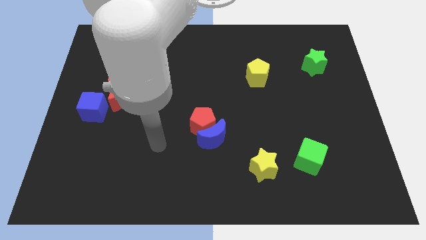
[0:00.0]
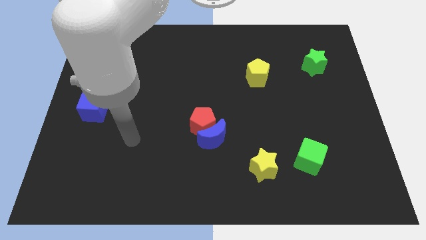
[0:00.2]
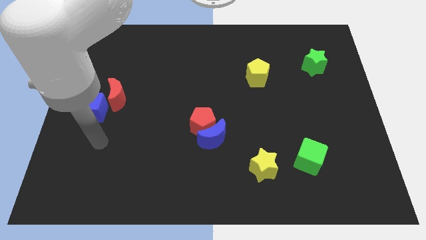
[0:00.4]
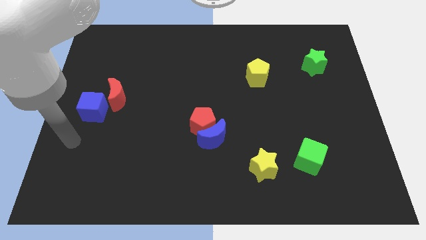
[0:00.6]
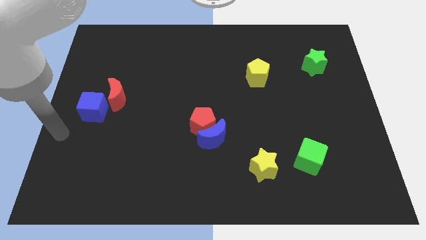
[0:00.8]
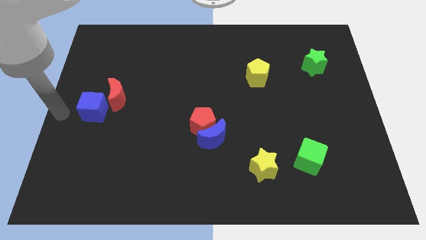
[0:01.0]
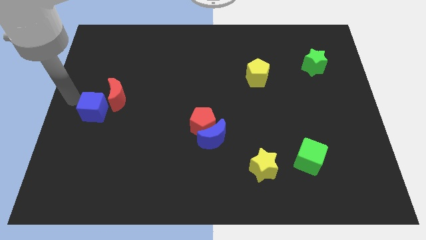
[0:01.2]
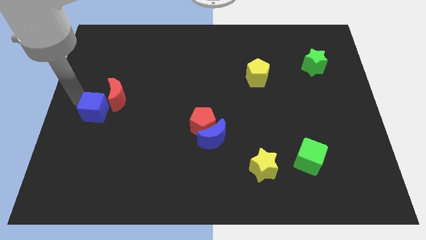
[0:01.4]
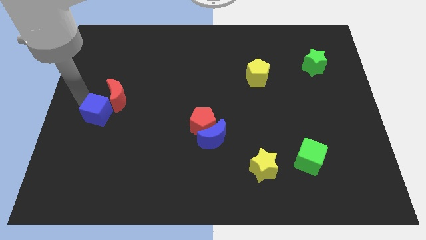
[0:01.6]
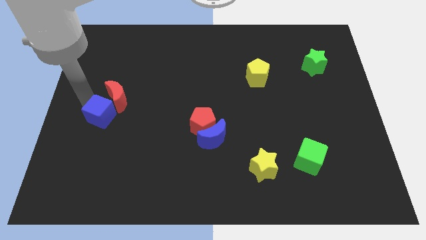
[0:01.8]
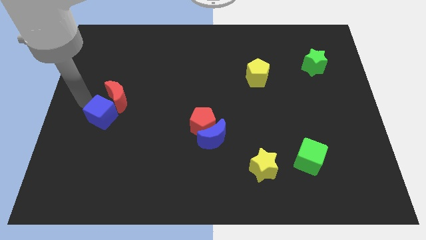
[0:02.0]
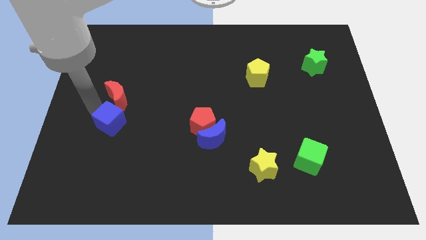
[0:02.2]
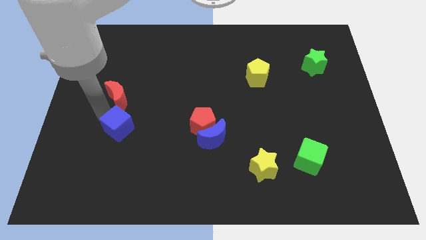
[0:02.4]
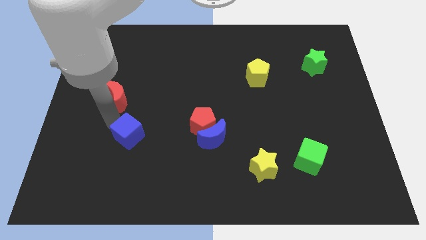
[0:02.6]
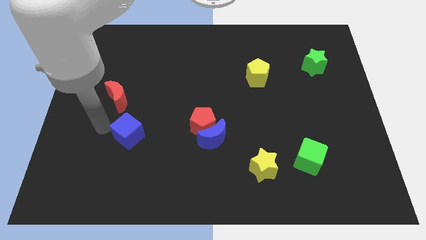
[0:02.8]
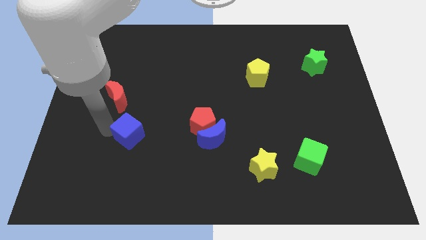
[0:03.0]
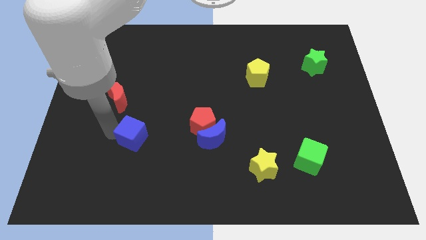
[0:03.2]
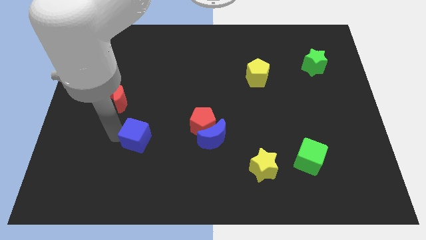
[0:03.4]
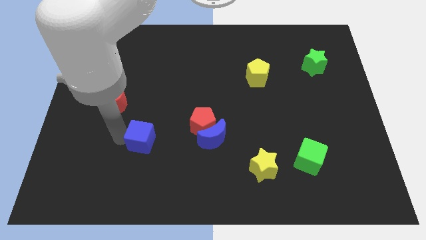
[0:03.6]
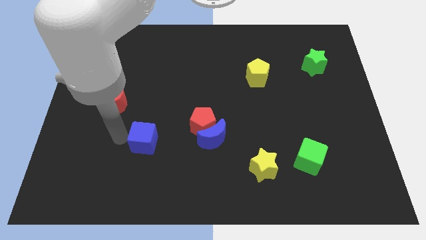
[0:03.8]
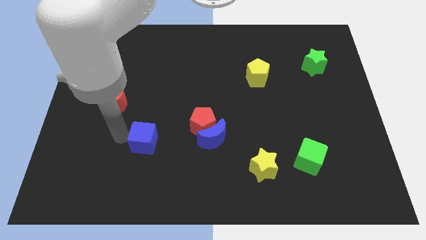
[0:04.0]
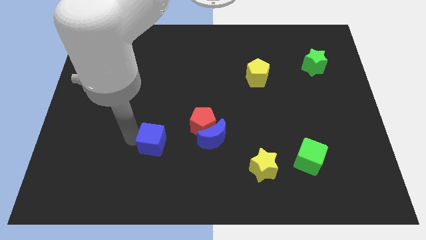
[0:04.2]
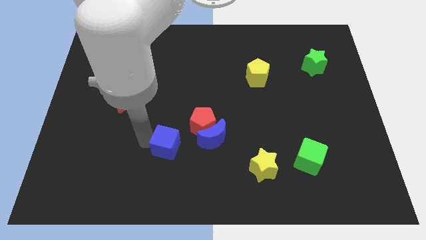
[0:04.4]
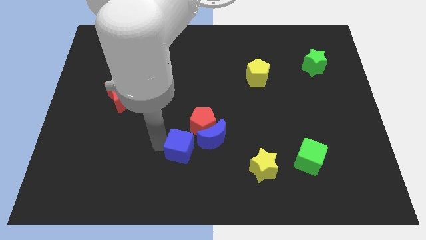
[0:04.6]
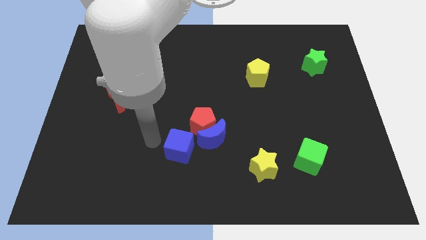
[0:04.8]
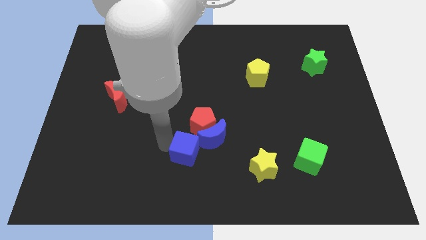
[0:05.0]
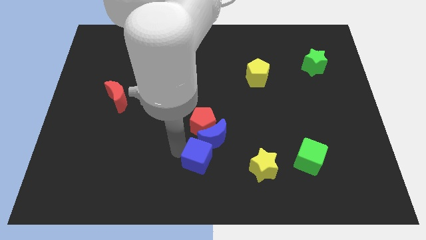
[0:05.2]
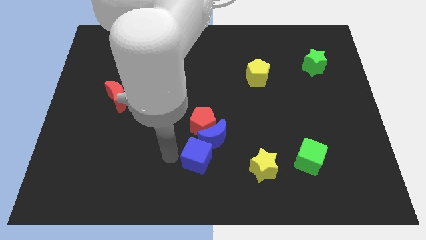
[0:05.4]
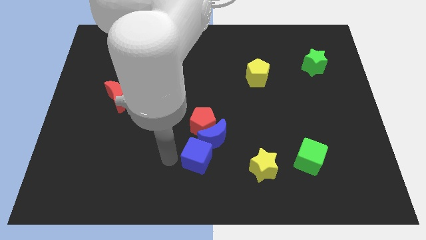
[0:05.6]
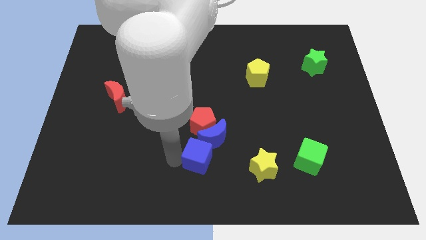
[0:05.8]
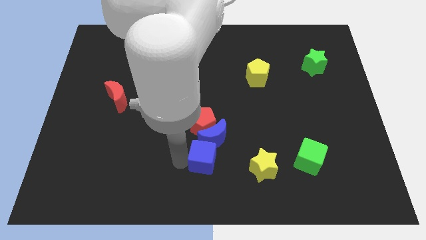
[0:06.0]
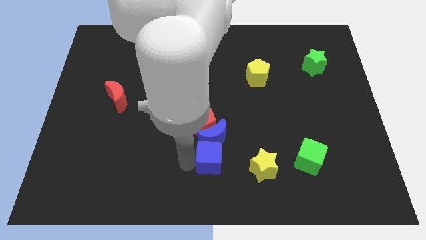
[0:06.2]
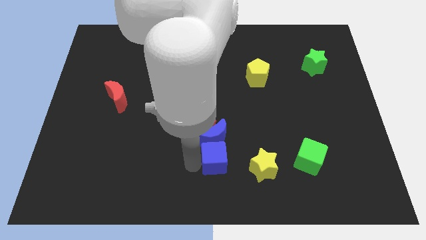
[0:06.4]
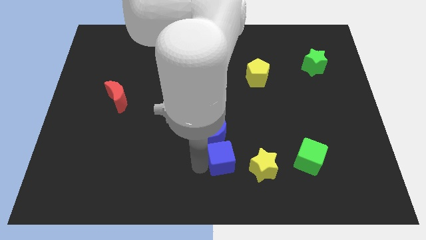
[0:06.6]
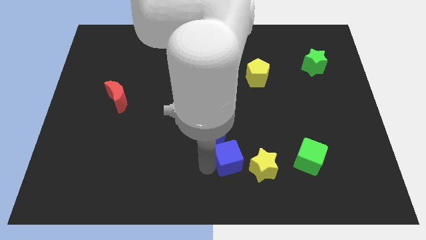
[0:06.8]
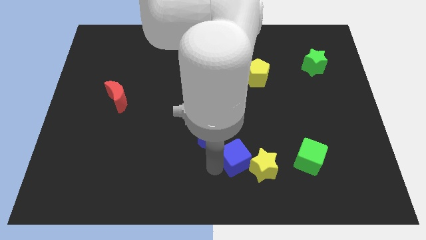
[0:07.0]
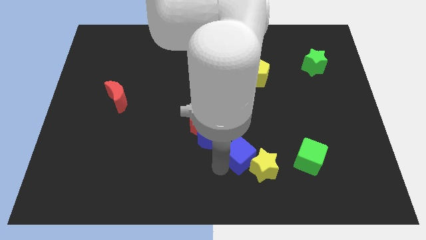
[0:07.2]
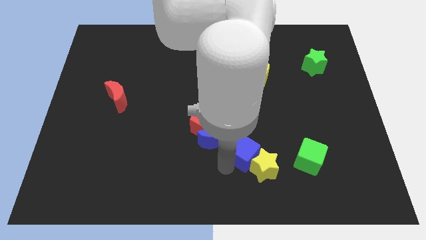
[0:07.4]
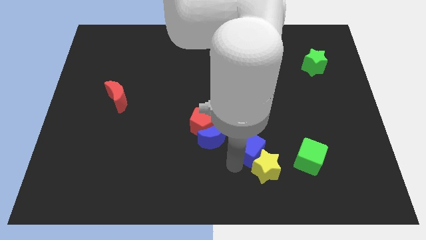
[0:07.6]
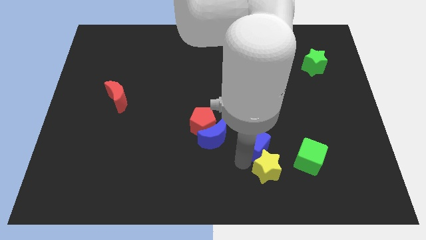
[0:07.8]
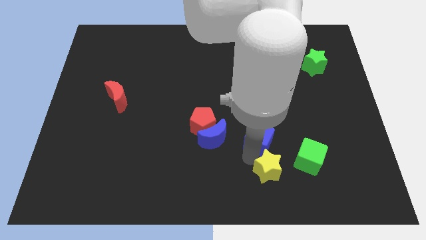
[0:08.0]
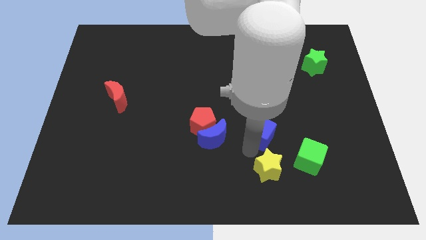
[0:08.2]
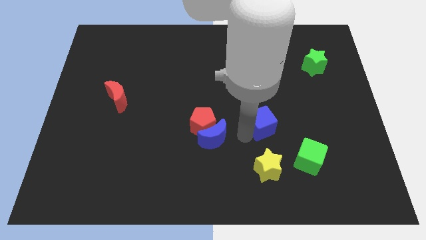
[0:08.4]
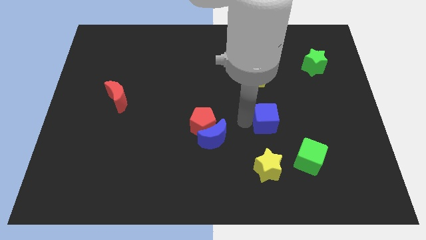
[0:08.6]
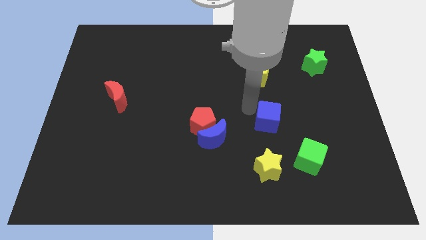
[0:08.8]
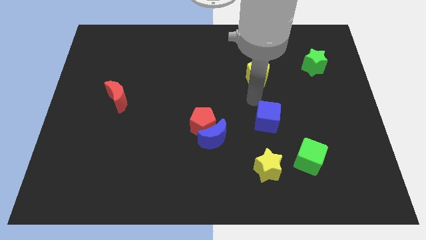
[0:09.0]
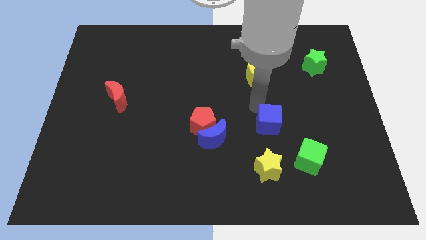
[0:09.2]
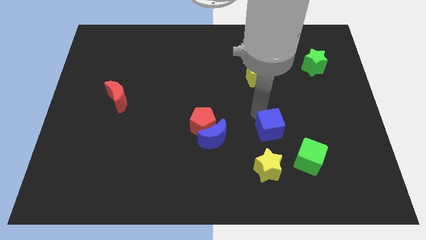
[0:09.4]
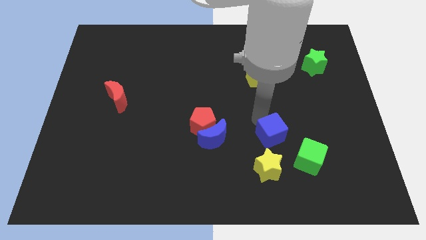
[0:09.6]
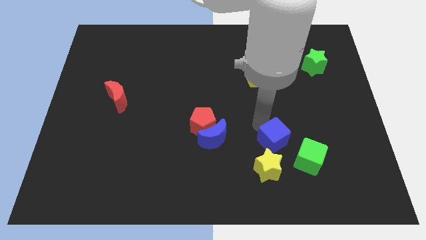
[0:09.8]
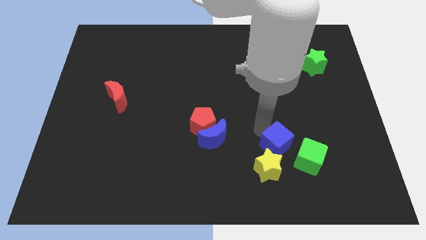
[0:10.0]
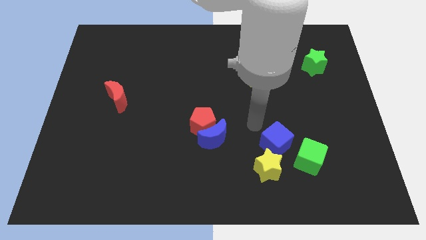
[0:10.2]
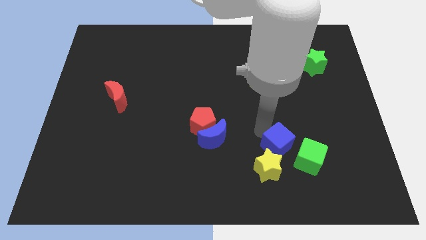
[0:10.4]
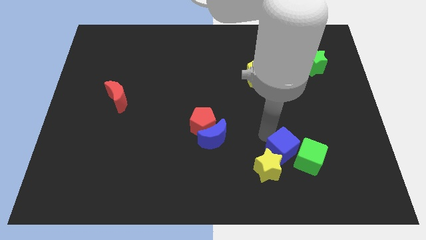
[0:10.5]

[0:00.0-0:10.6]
slide the blue cube next to the green cube

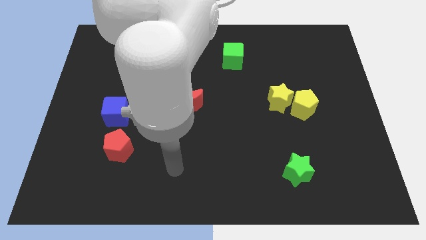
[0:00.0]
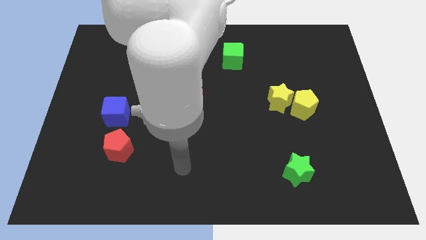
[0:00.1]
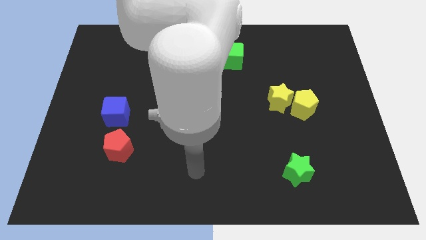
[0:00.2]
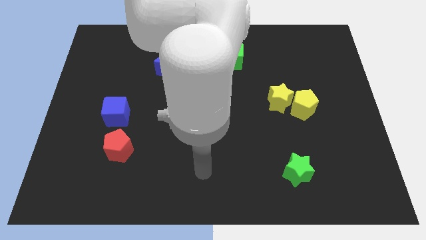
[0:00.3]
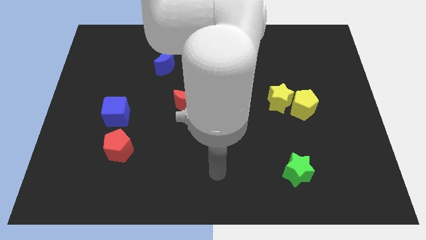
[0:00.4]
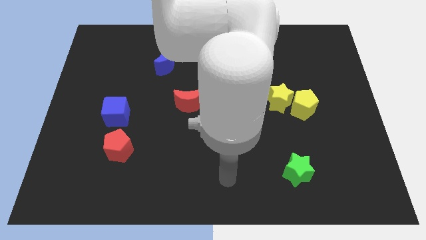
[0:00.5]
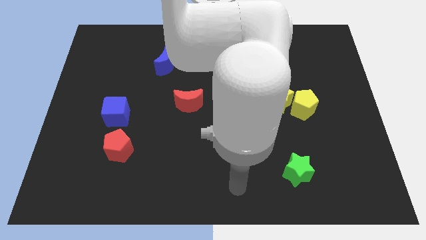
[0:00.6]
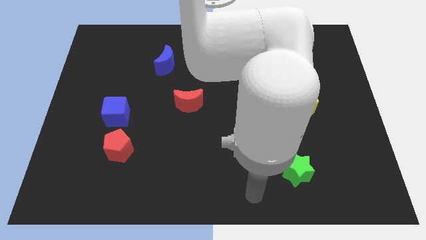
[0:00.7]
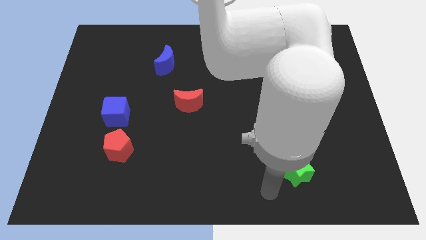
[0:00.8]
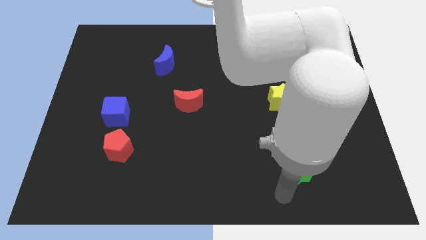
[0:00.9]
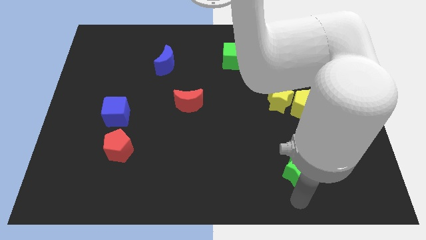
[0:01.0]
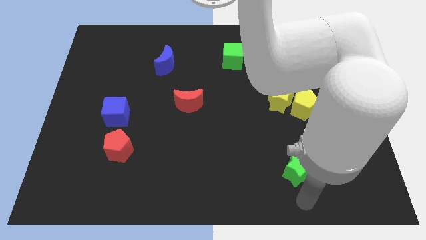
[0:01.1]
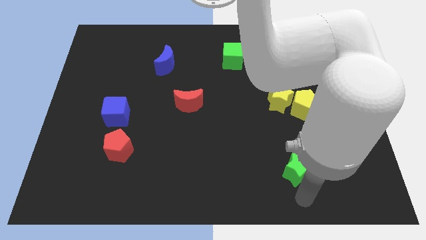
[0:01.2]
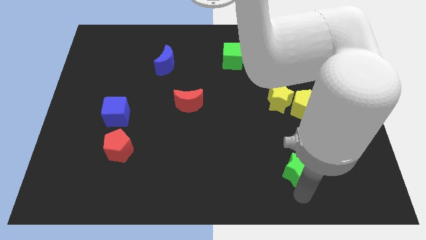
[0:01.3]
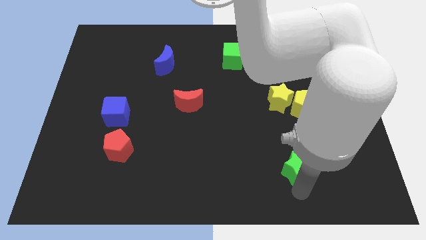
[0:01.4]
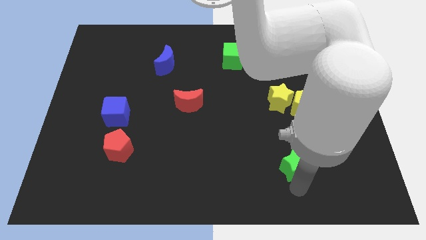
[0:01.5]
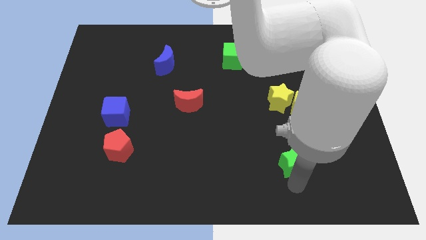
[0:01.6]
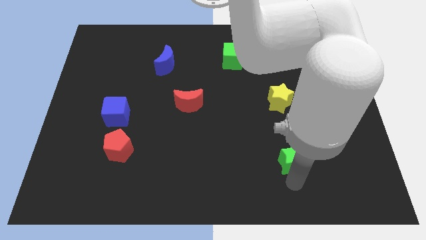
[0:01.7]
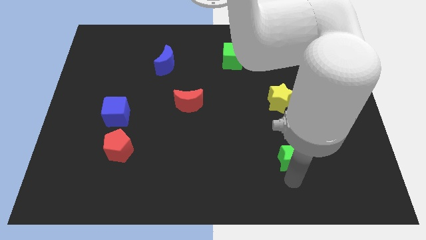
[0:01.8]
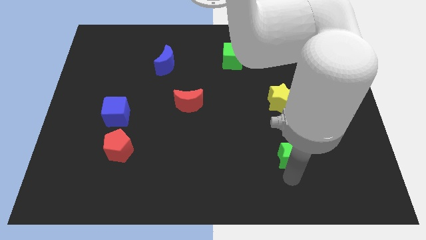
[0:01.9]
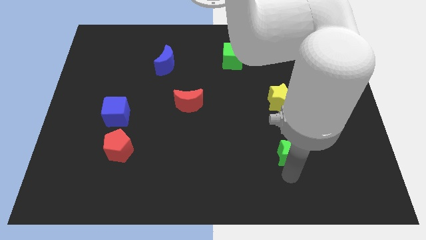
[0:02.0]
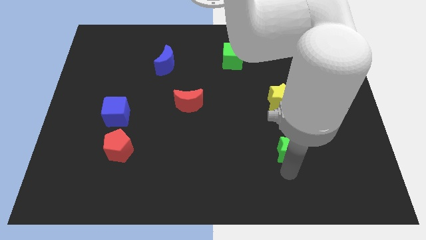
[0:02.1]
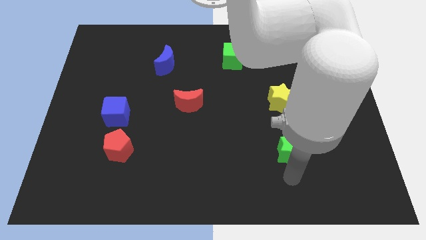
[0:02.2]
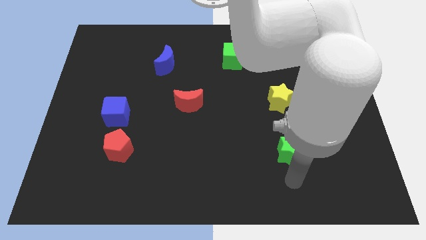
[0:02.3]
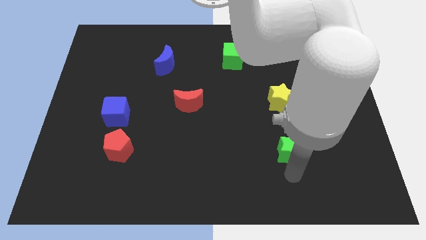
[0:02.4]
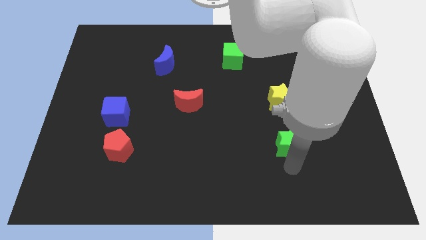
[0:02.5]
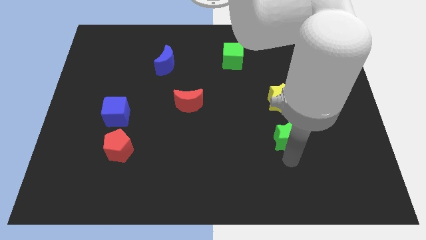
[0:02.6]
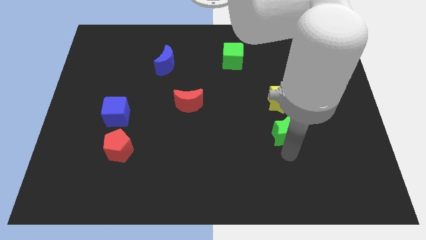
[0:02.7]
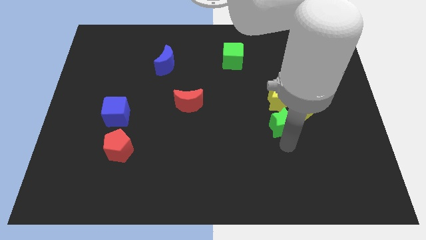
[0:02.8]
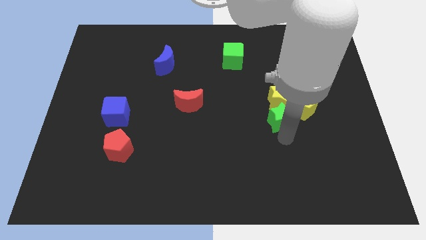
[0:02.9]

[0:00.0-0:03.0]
put the green star towards the yellow star
